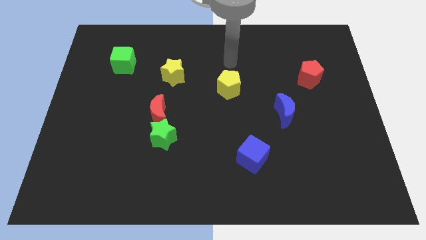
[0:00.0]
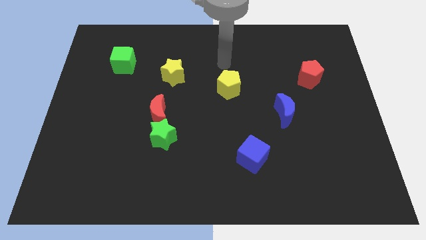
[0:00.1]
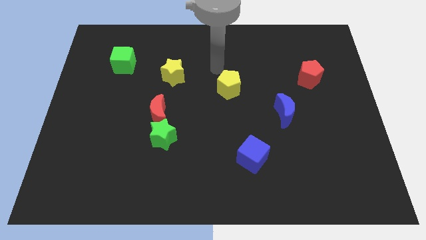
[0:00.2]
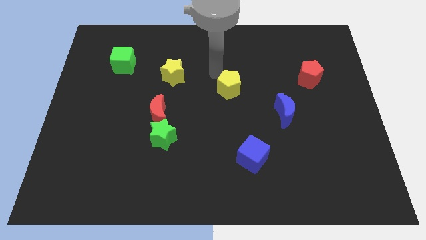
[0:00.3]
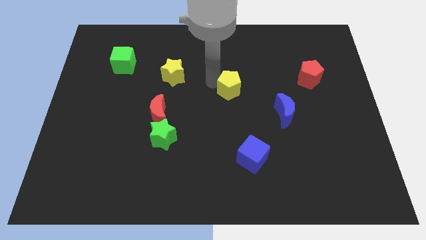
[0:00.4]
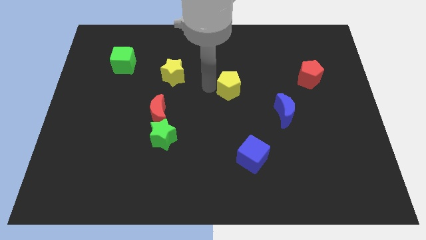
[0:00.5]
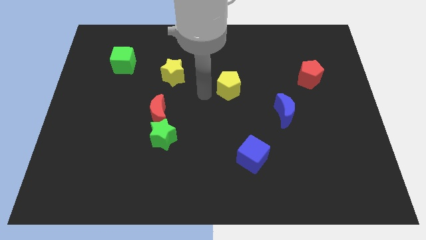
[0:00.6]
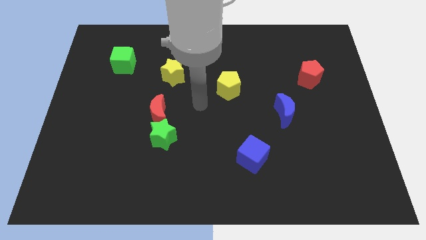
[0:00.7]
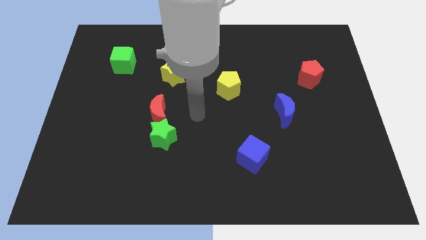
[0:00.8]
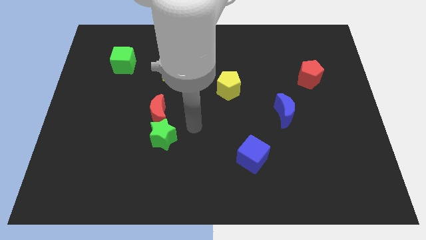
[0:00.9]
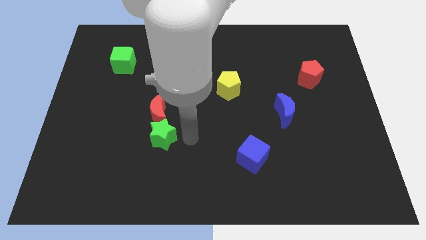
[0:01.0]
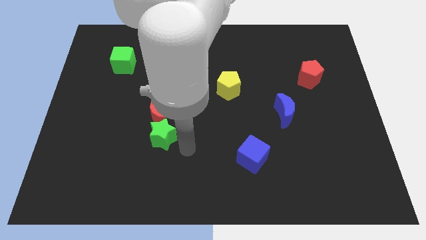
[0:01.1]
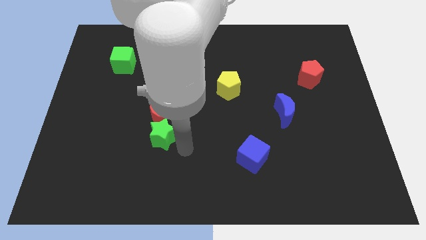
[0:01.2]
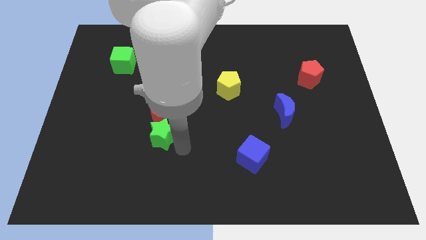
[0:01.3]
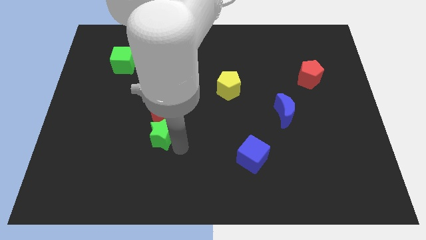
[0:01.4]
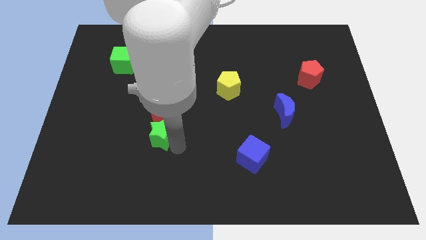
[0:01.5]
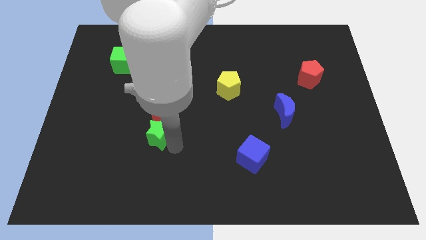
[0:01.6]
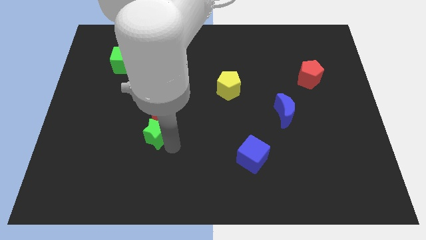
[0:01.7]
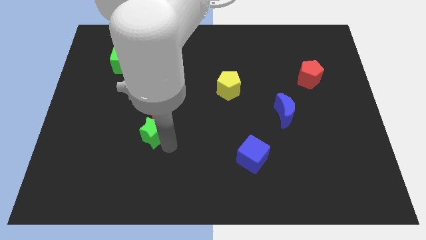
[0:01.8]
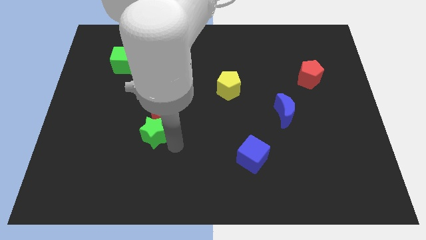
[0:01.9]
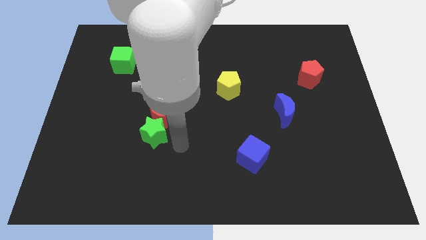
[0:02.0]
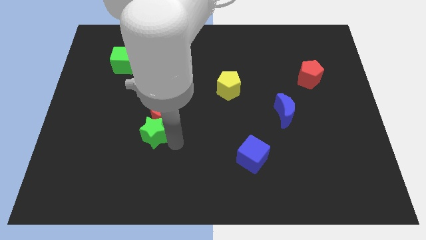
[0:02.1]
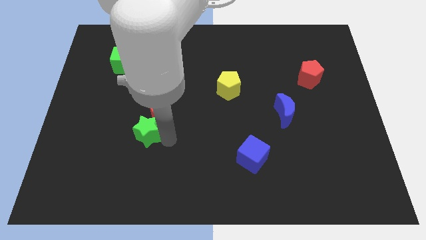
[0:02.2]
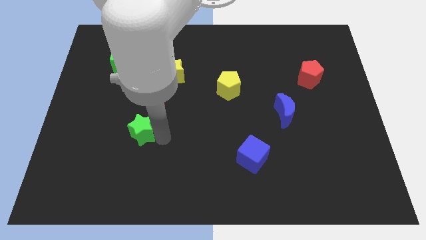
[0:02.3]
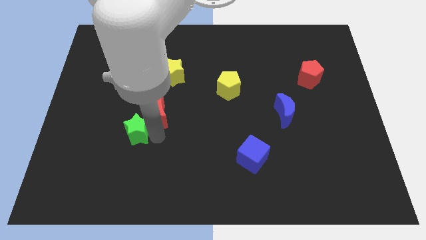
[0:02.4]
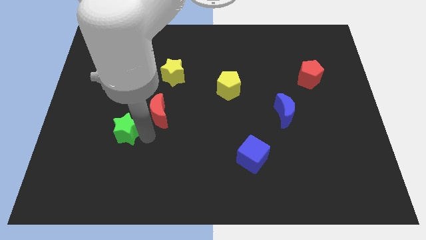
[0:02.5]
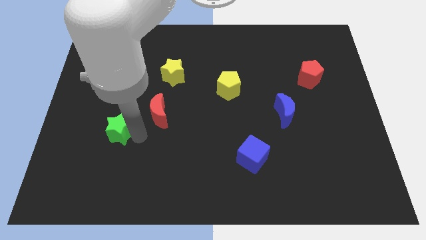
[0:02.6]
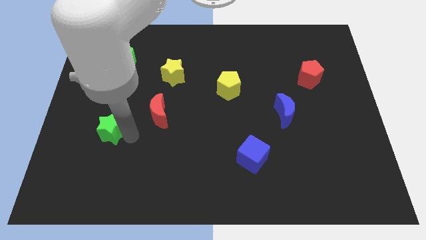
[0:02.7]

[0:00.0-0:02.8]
slide the green star a little diagonally upwards and left

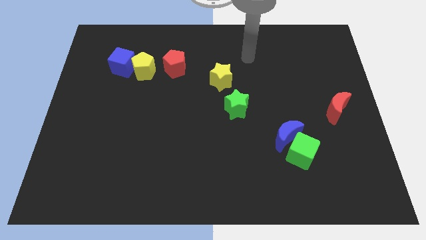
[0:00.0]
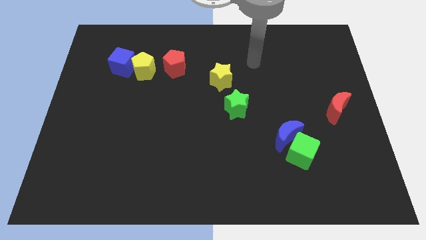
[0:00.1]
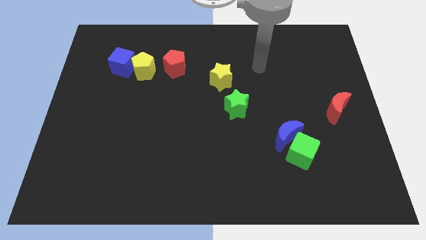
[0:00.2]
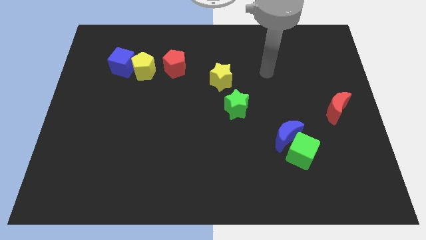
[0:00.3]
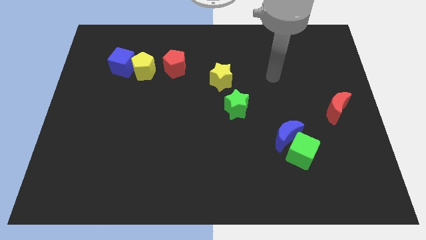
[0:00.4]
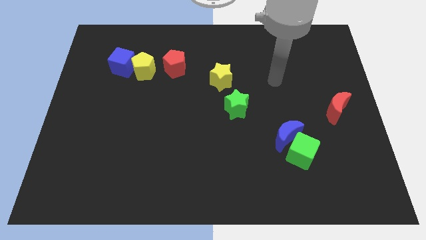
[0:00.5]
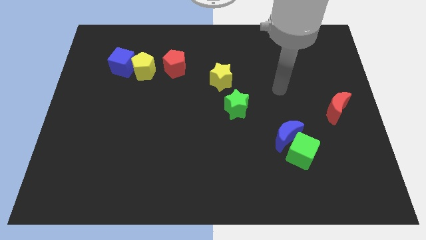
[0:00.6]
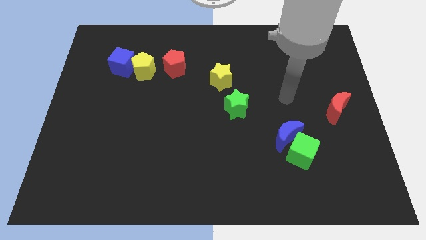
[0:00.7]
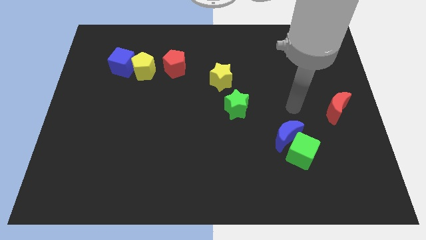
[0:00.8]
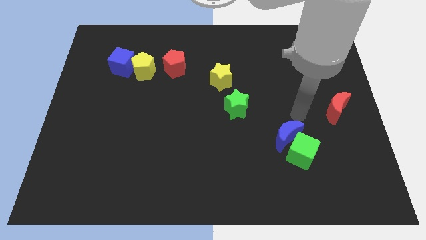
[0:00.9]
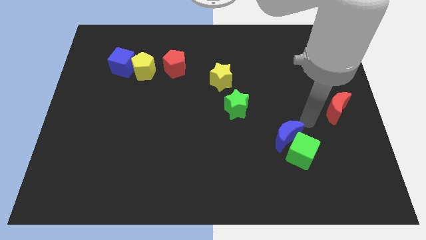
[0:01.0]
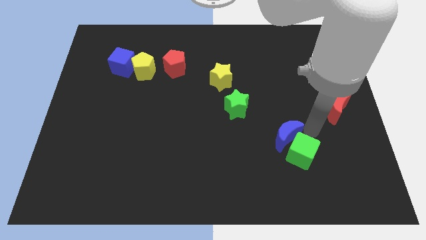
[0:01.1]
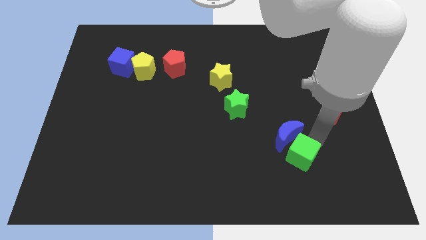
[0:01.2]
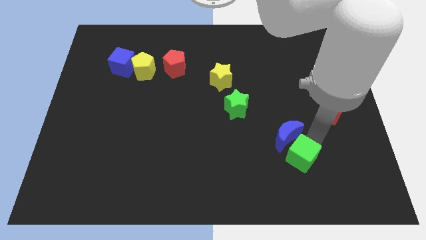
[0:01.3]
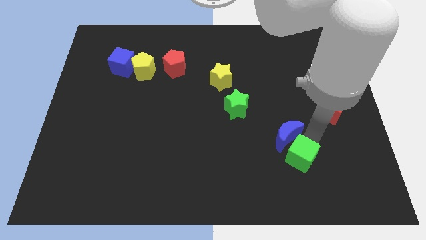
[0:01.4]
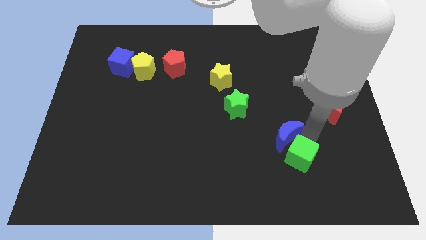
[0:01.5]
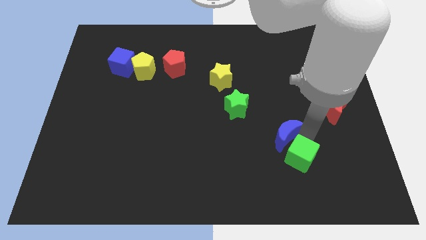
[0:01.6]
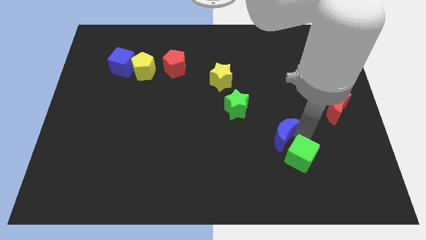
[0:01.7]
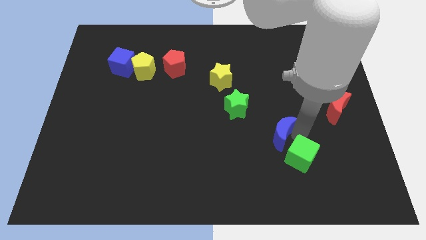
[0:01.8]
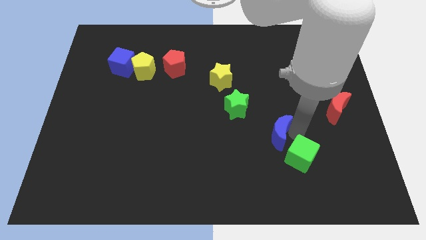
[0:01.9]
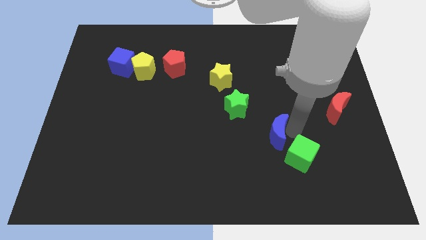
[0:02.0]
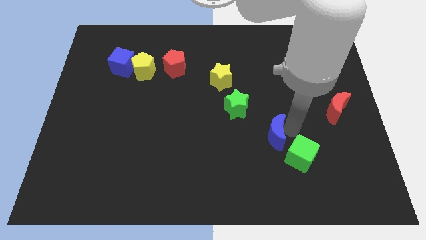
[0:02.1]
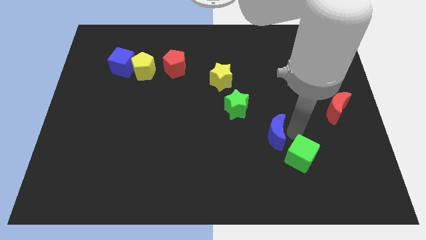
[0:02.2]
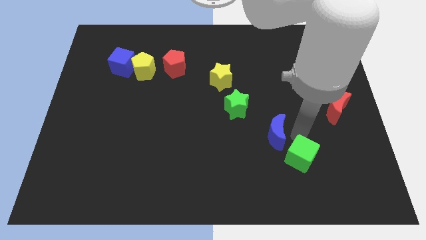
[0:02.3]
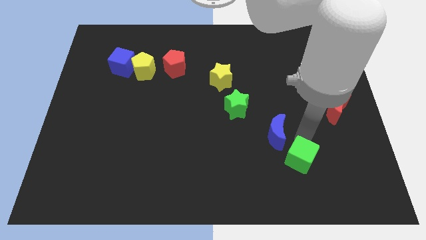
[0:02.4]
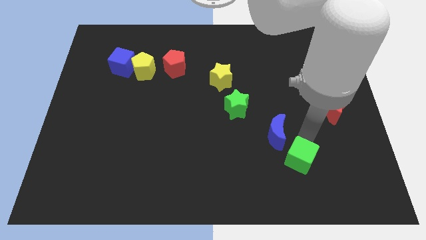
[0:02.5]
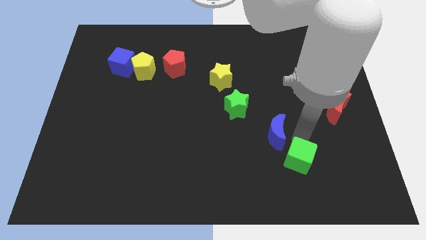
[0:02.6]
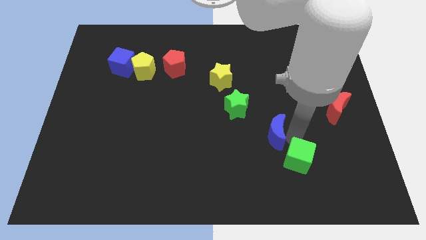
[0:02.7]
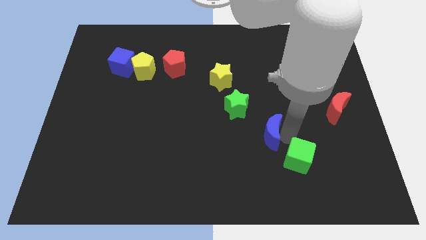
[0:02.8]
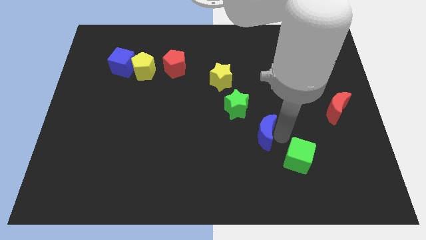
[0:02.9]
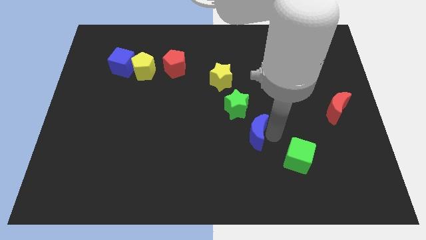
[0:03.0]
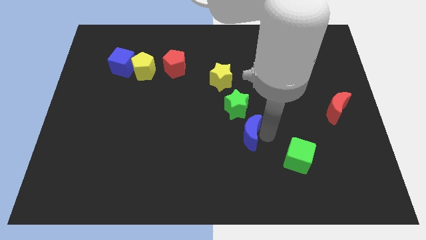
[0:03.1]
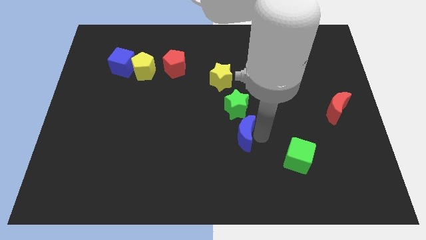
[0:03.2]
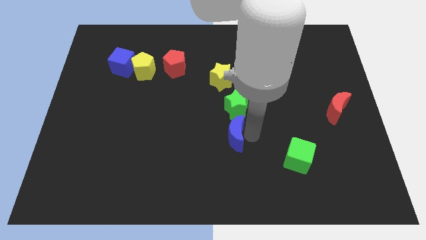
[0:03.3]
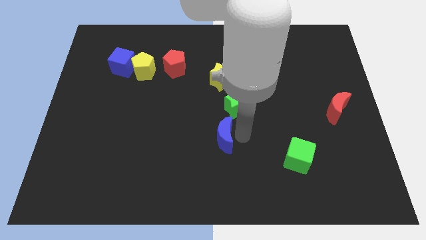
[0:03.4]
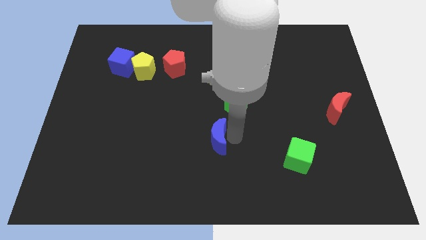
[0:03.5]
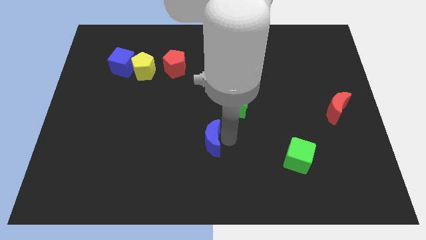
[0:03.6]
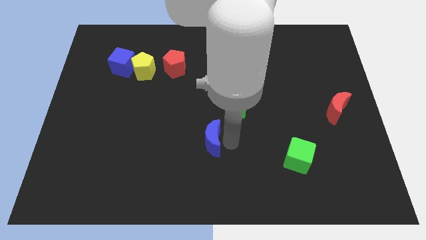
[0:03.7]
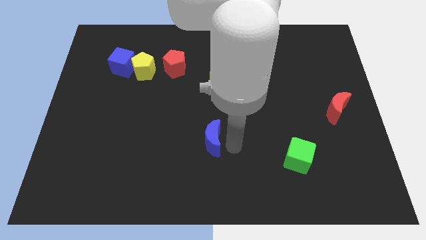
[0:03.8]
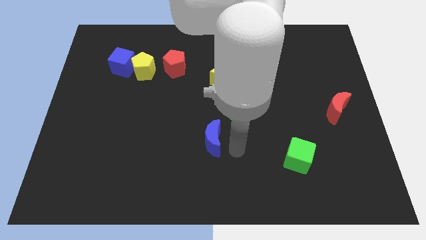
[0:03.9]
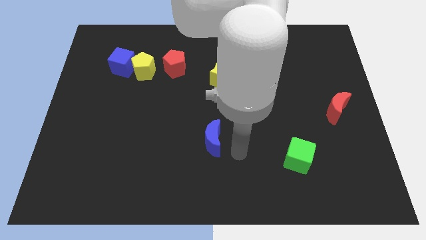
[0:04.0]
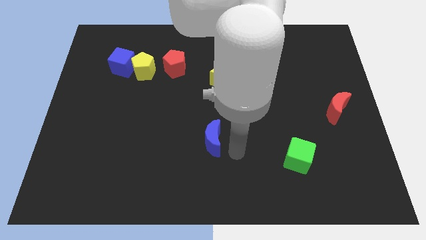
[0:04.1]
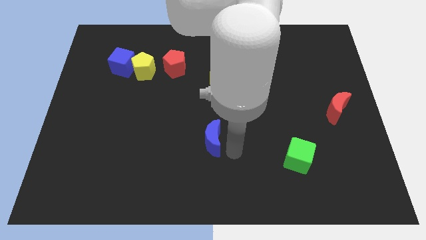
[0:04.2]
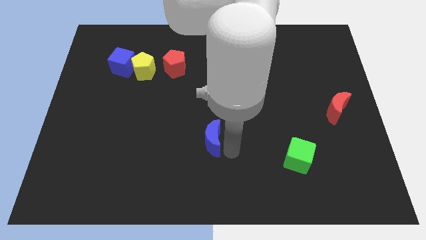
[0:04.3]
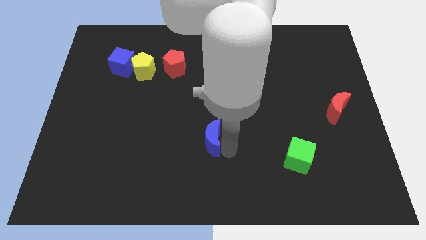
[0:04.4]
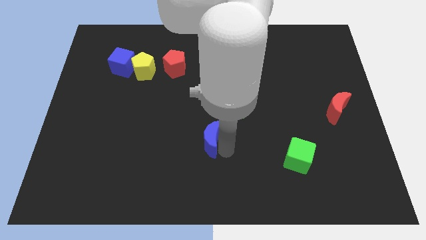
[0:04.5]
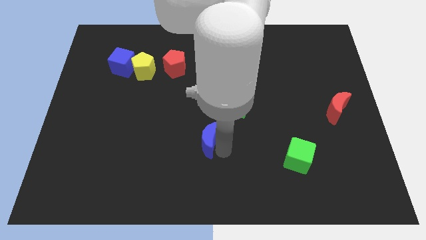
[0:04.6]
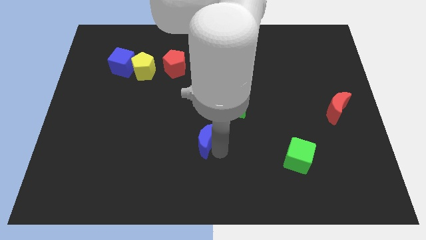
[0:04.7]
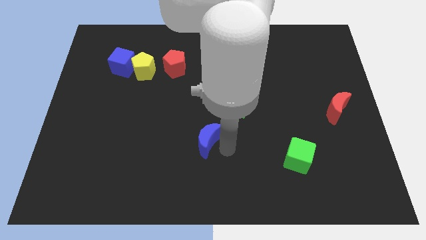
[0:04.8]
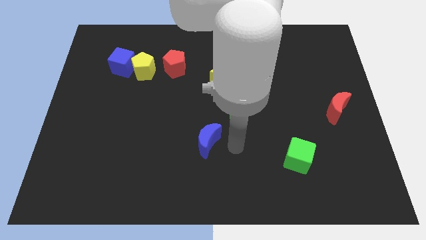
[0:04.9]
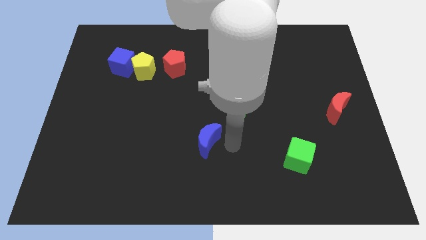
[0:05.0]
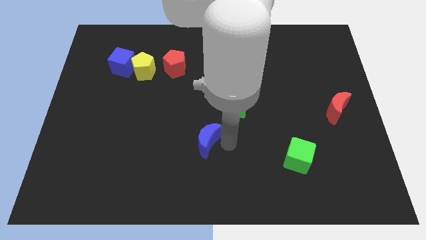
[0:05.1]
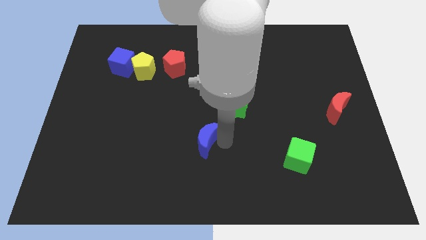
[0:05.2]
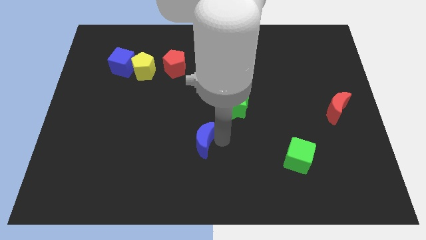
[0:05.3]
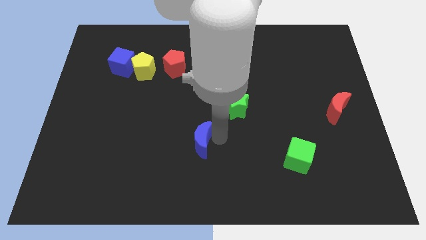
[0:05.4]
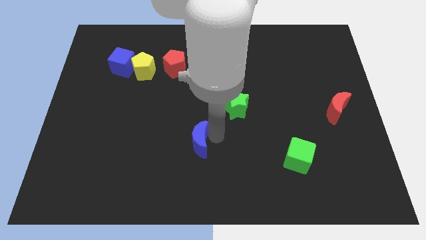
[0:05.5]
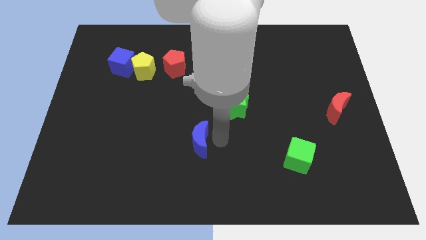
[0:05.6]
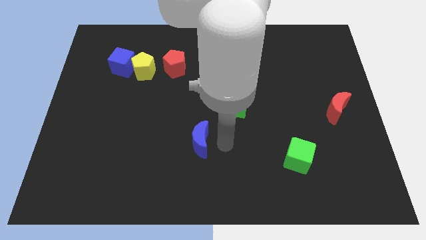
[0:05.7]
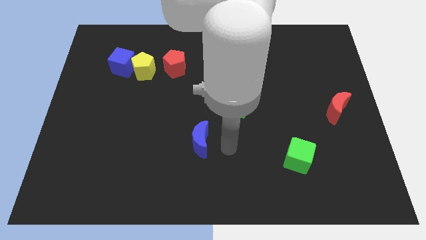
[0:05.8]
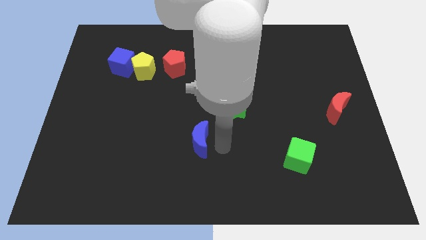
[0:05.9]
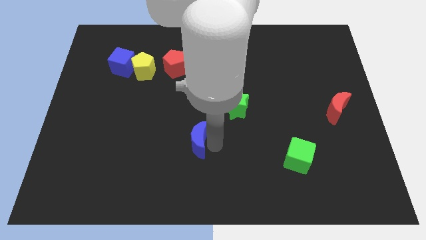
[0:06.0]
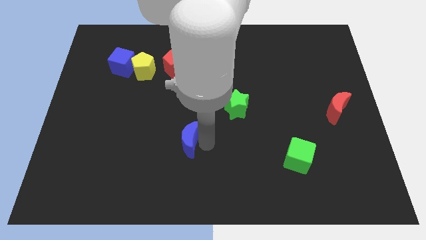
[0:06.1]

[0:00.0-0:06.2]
move the blue moon to the left
